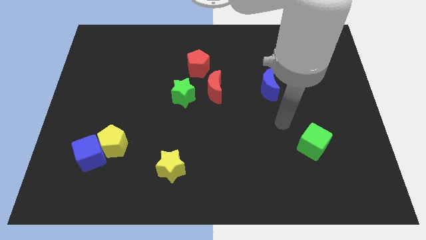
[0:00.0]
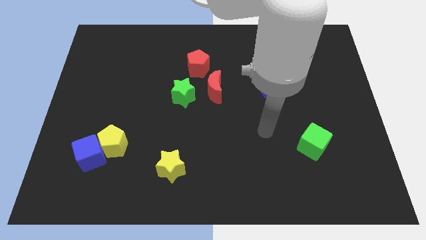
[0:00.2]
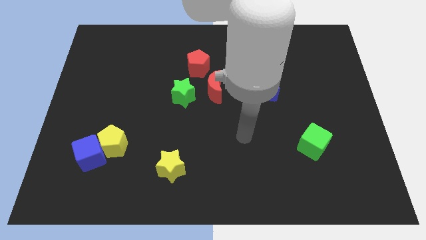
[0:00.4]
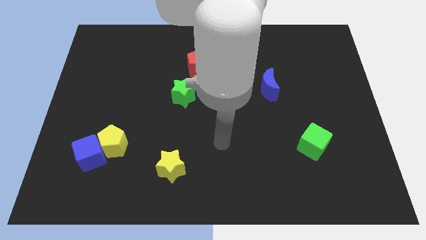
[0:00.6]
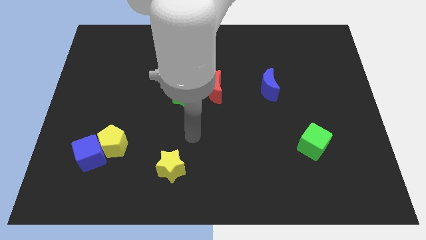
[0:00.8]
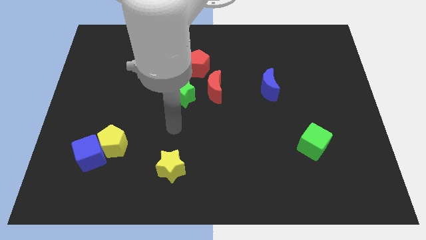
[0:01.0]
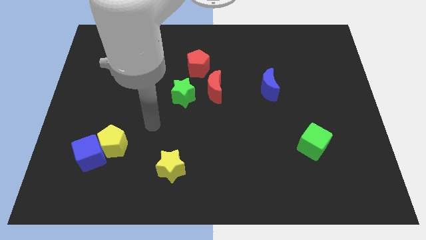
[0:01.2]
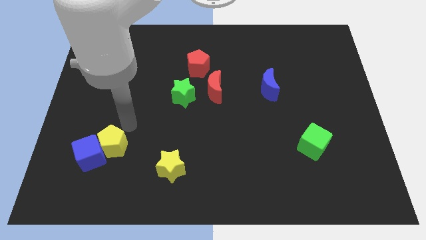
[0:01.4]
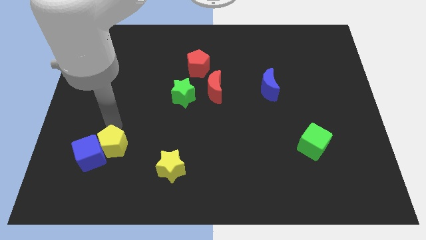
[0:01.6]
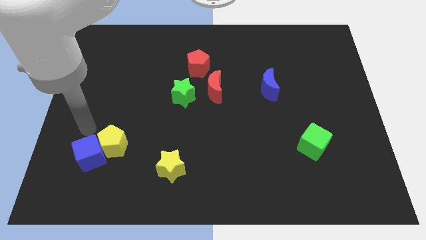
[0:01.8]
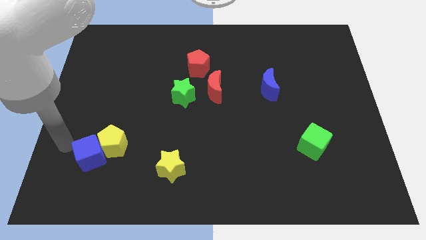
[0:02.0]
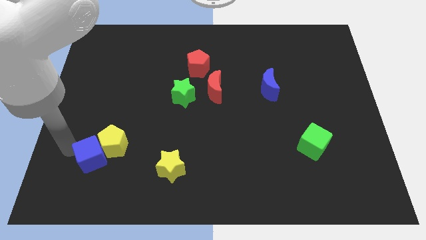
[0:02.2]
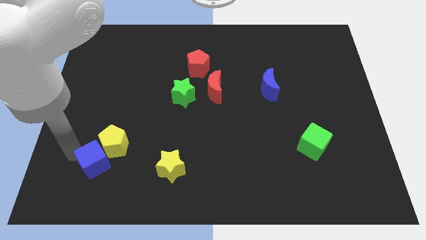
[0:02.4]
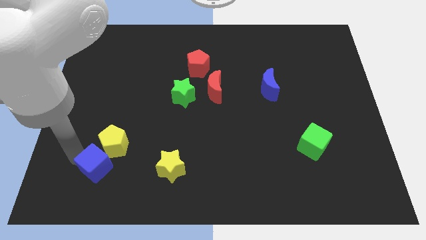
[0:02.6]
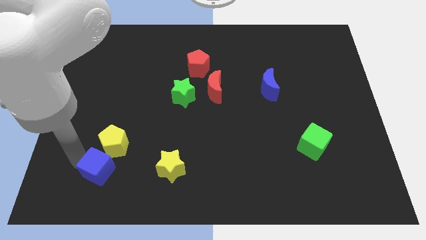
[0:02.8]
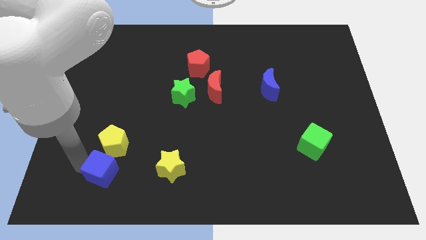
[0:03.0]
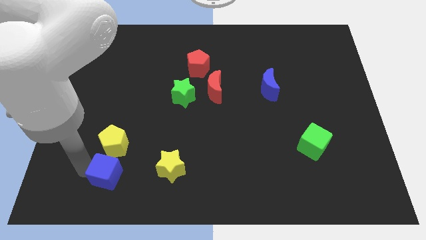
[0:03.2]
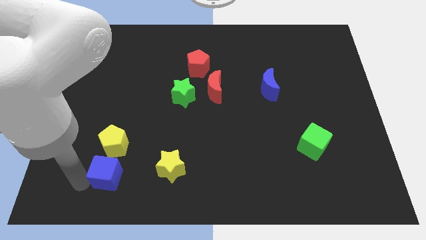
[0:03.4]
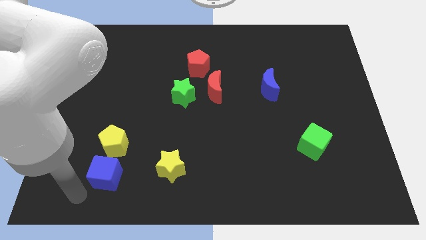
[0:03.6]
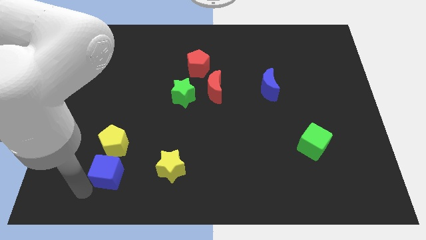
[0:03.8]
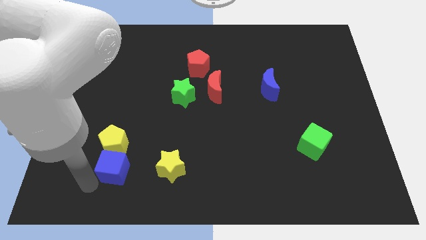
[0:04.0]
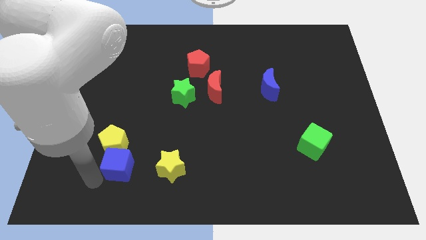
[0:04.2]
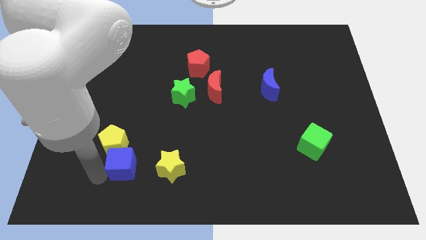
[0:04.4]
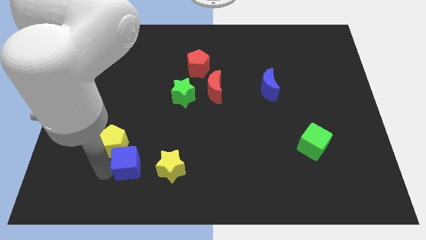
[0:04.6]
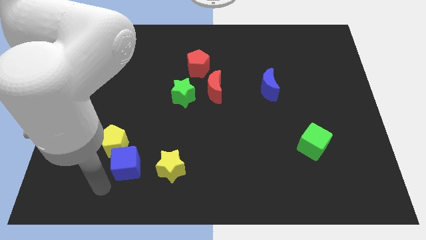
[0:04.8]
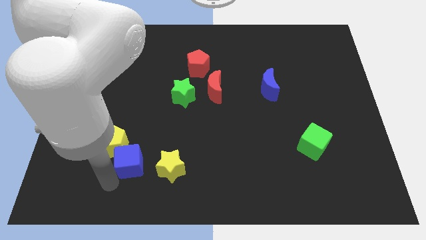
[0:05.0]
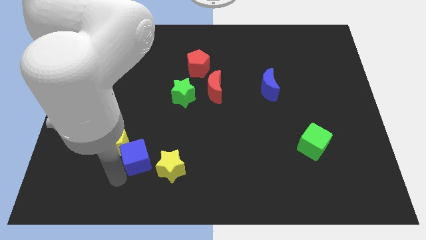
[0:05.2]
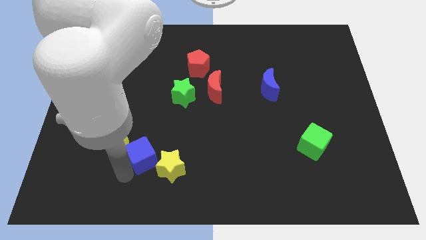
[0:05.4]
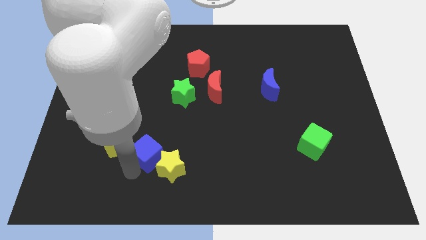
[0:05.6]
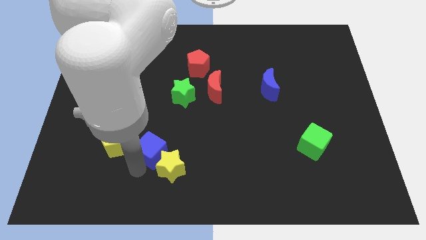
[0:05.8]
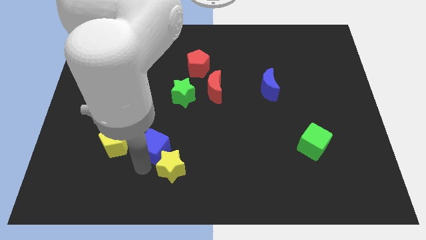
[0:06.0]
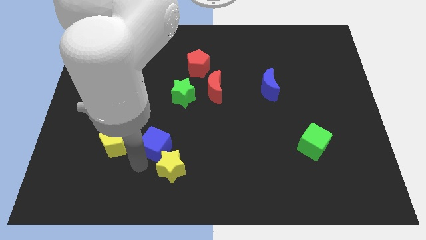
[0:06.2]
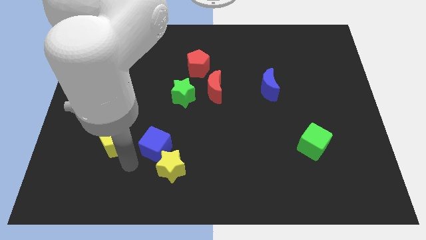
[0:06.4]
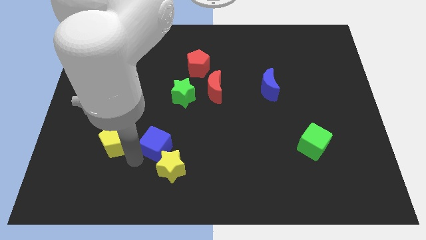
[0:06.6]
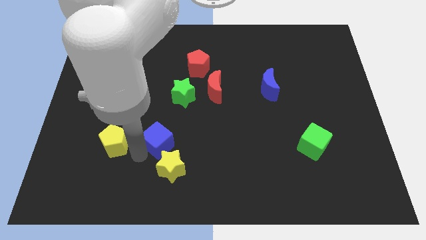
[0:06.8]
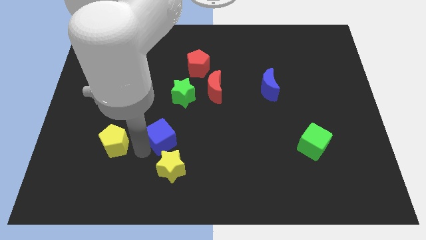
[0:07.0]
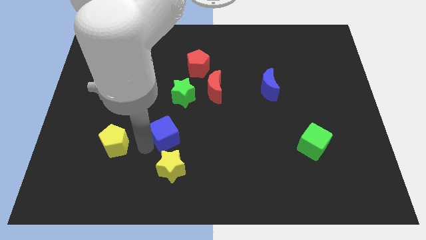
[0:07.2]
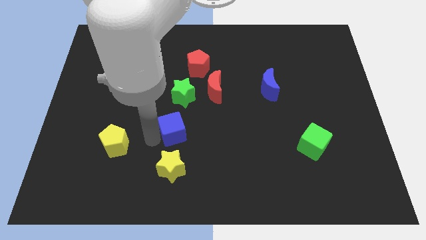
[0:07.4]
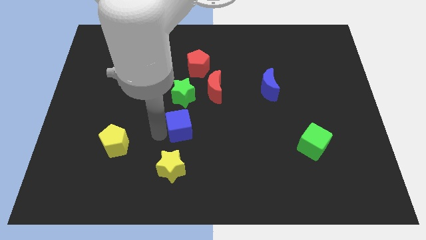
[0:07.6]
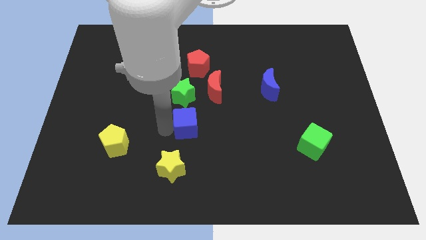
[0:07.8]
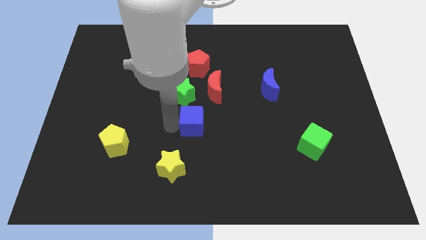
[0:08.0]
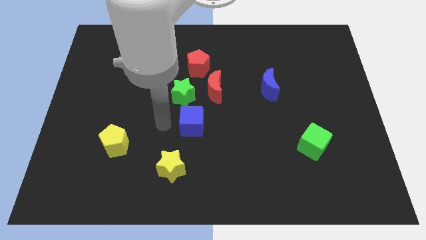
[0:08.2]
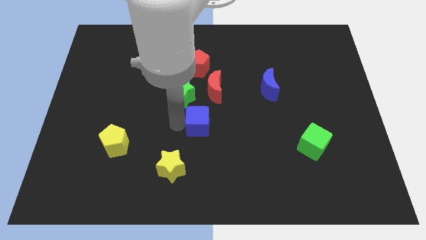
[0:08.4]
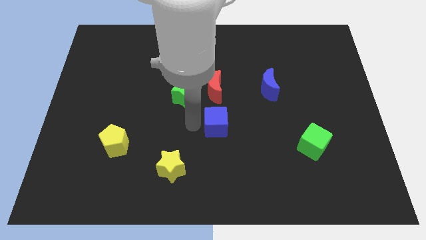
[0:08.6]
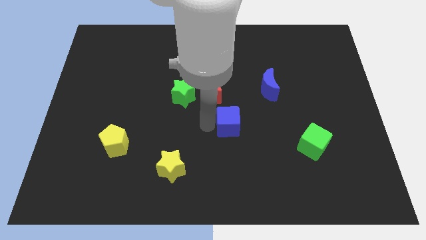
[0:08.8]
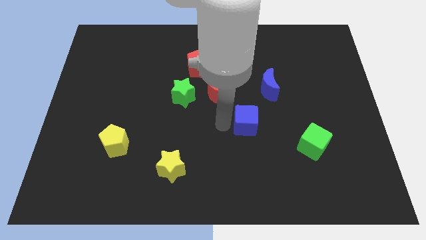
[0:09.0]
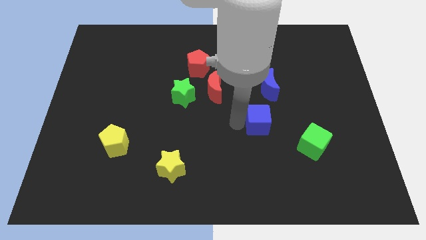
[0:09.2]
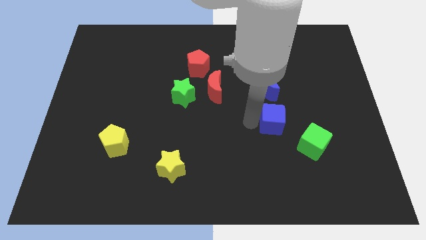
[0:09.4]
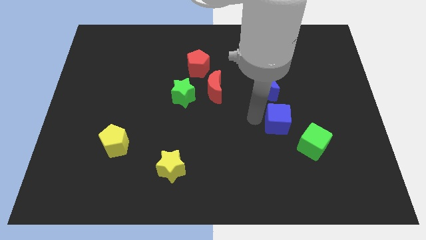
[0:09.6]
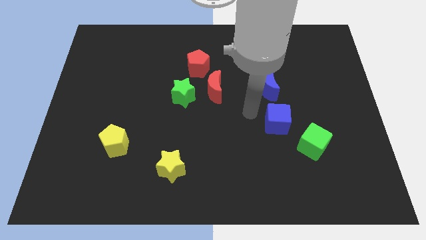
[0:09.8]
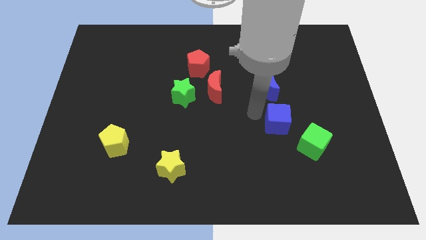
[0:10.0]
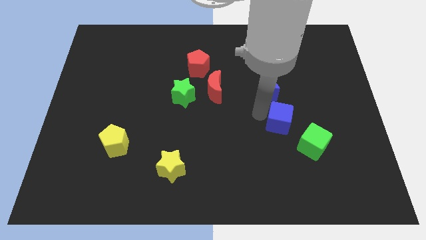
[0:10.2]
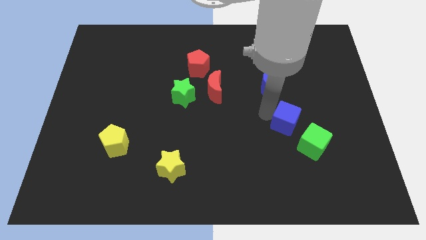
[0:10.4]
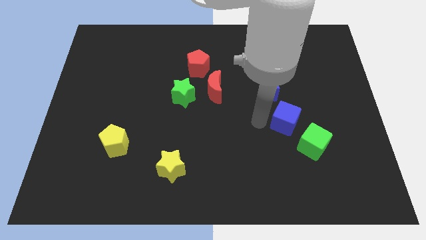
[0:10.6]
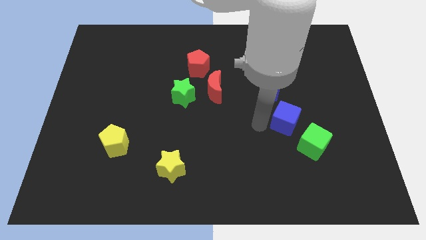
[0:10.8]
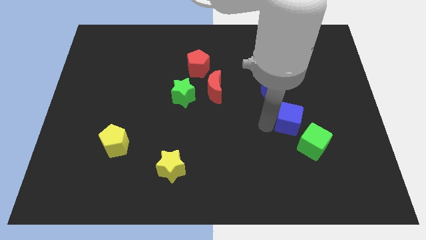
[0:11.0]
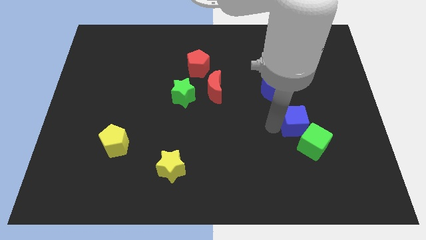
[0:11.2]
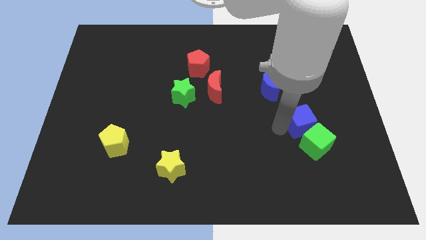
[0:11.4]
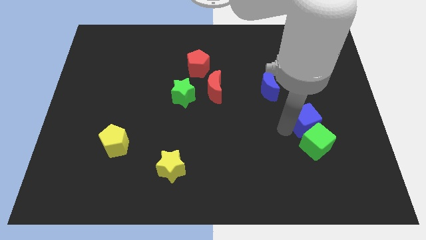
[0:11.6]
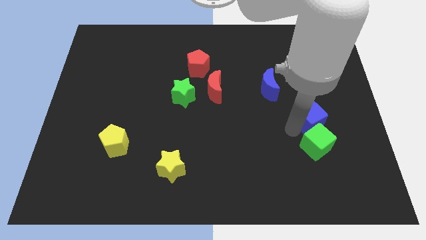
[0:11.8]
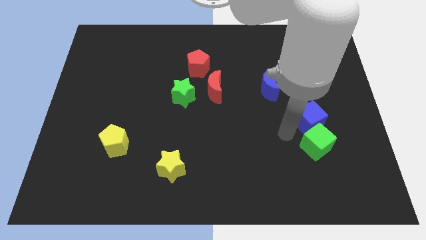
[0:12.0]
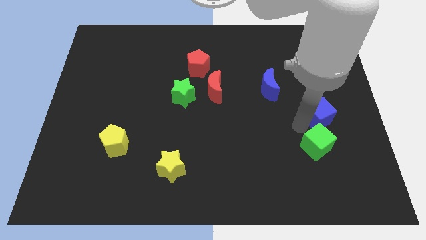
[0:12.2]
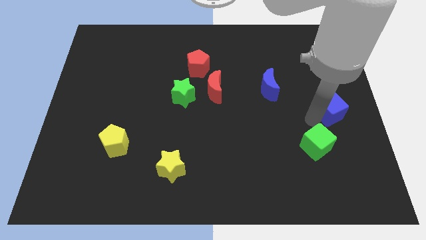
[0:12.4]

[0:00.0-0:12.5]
slide the blue cube to the right side of the board

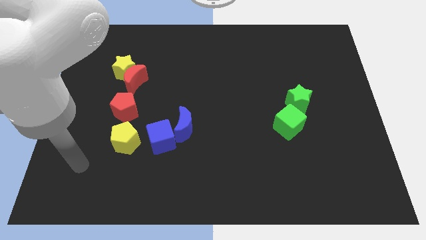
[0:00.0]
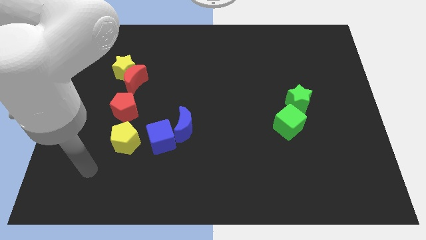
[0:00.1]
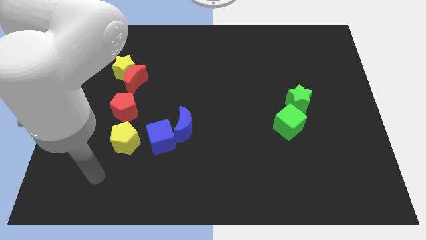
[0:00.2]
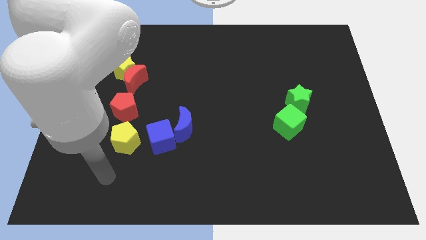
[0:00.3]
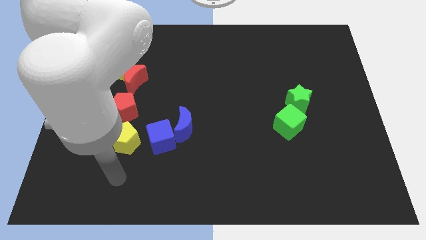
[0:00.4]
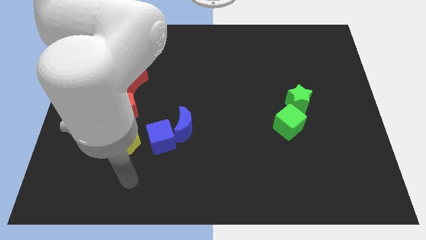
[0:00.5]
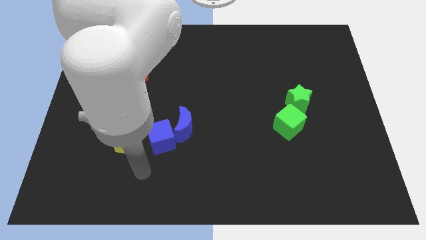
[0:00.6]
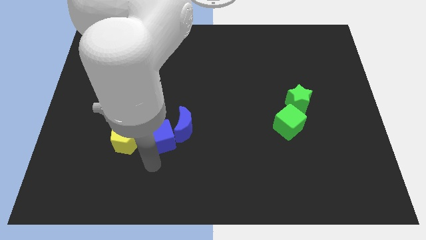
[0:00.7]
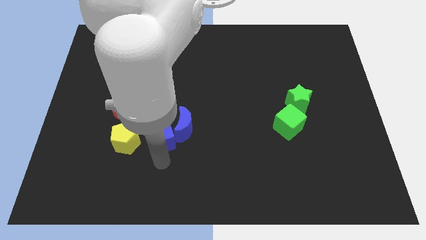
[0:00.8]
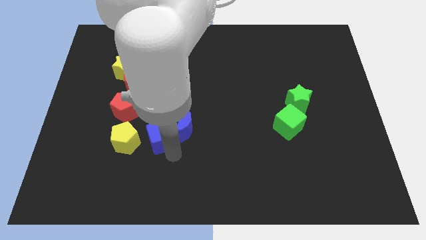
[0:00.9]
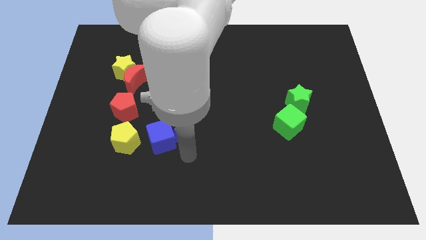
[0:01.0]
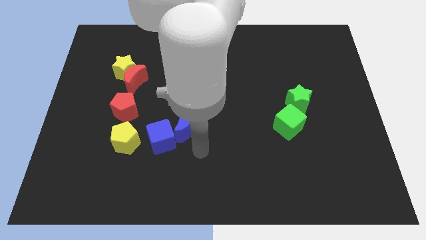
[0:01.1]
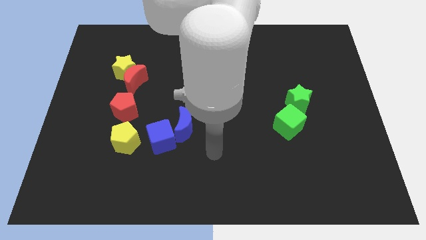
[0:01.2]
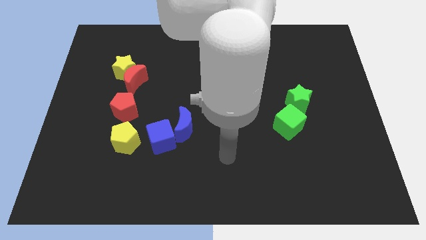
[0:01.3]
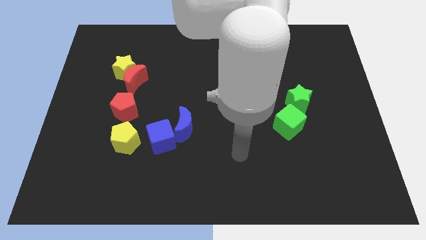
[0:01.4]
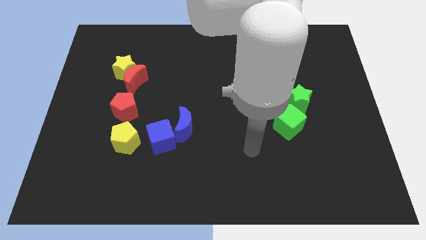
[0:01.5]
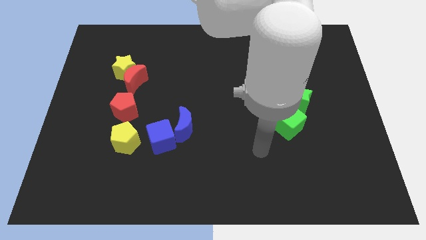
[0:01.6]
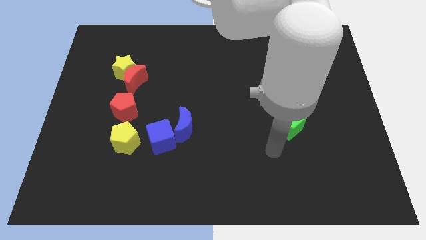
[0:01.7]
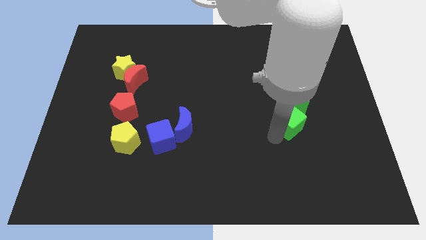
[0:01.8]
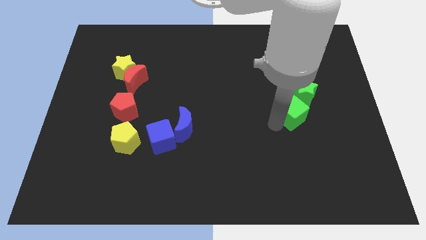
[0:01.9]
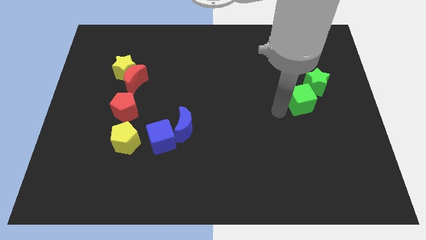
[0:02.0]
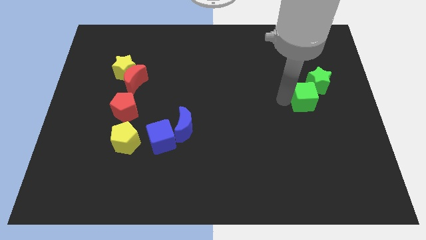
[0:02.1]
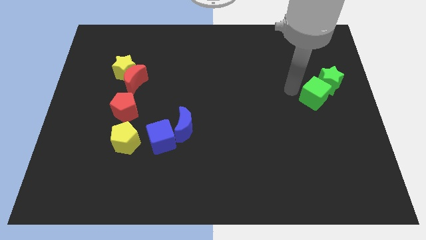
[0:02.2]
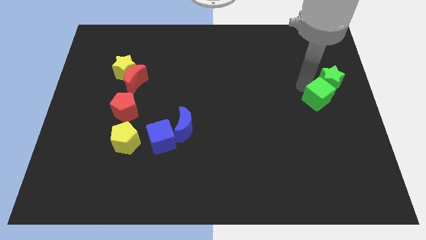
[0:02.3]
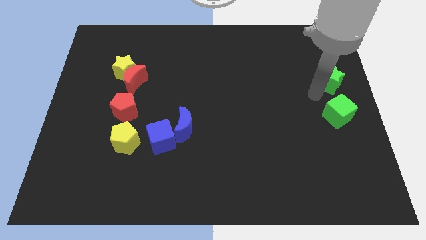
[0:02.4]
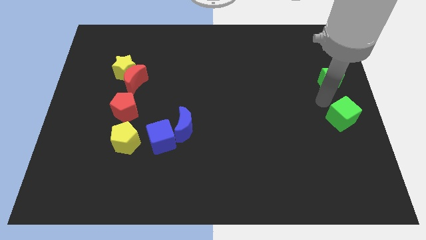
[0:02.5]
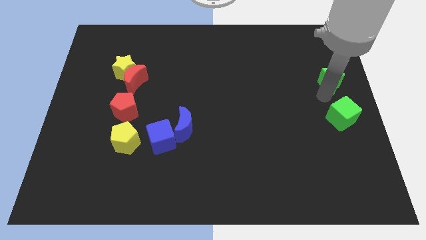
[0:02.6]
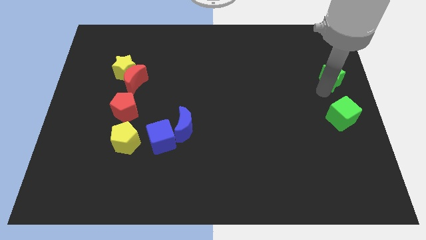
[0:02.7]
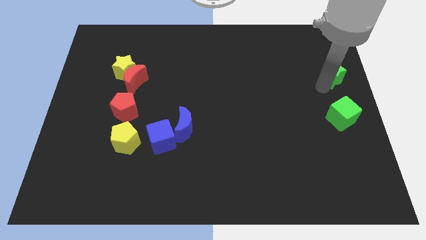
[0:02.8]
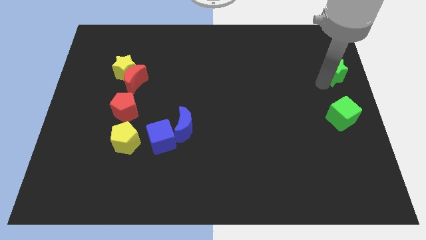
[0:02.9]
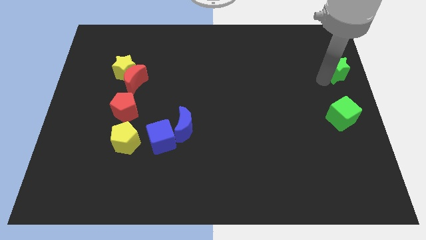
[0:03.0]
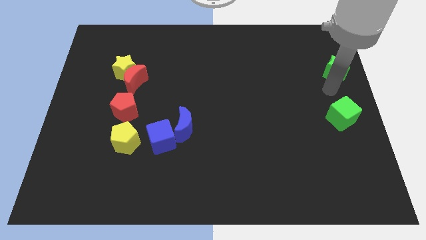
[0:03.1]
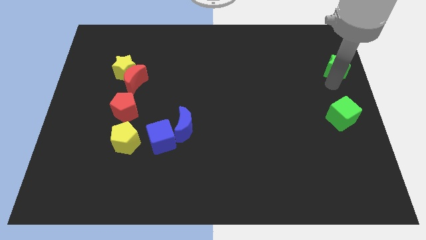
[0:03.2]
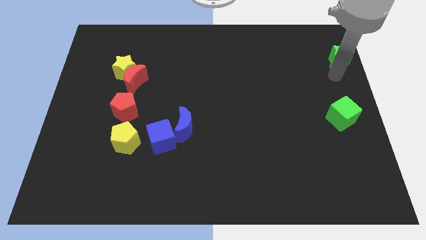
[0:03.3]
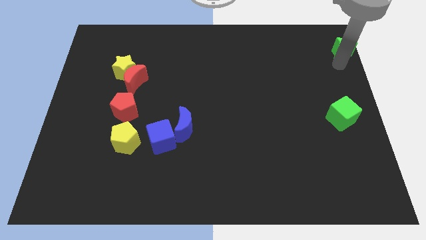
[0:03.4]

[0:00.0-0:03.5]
move the green star to the top right corner
